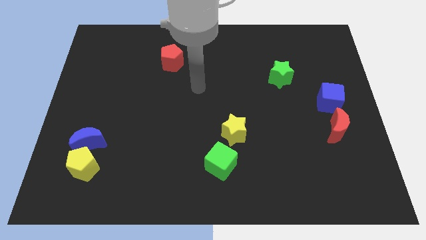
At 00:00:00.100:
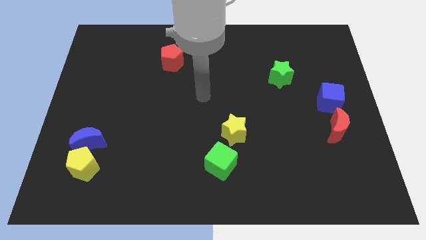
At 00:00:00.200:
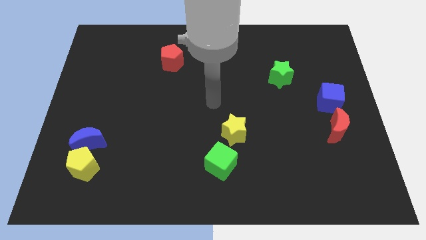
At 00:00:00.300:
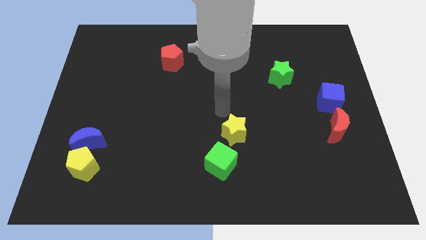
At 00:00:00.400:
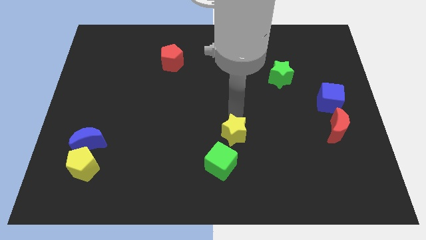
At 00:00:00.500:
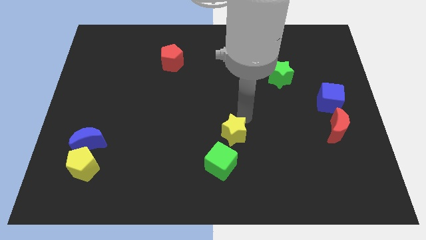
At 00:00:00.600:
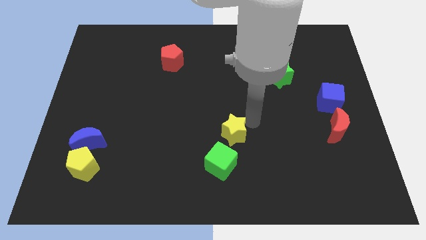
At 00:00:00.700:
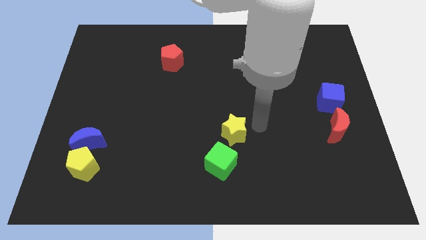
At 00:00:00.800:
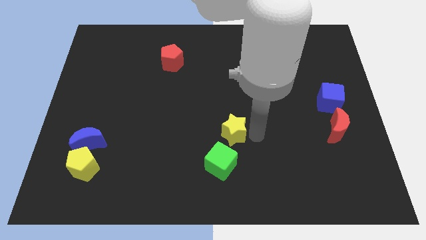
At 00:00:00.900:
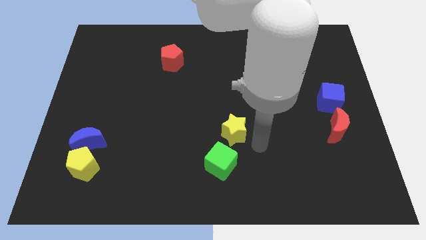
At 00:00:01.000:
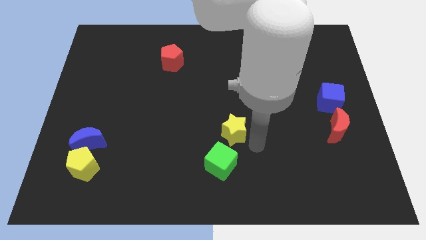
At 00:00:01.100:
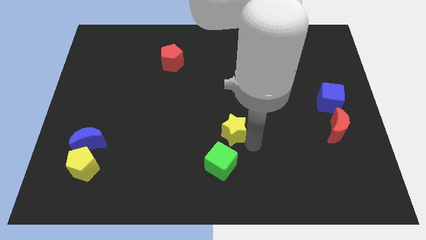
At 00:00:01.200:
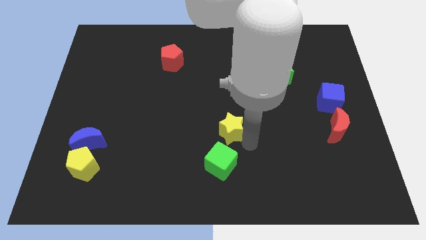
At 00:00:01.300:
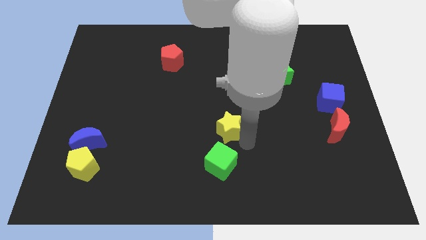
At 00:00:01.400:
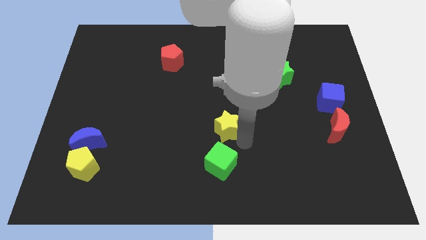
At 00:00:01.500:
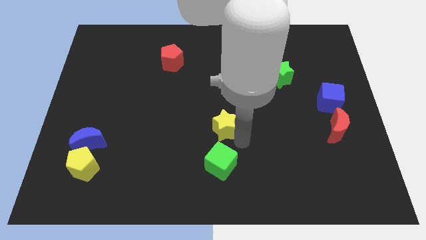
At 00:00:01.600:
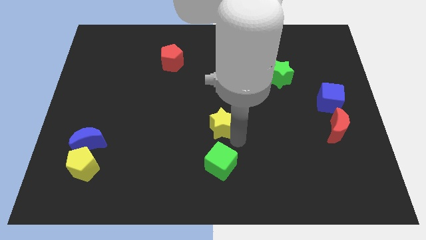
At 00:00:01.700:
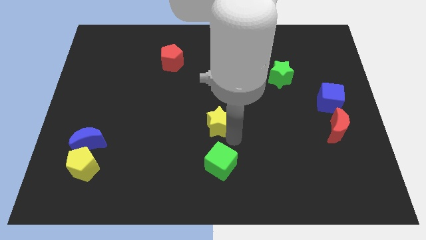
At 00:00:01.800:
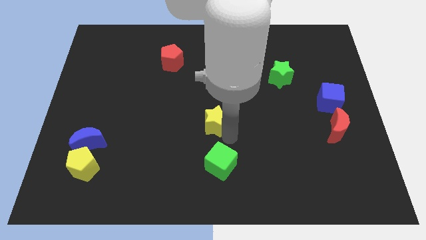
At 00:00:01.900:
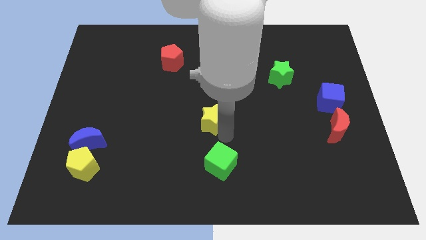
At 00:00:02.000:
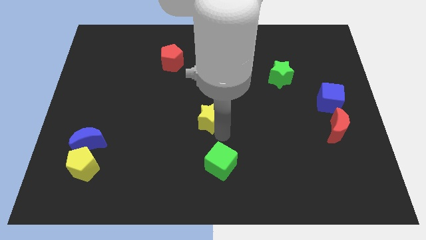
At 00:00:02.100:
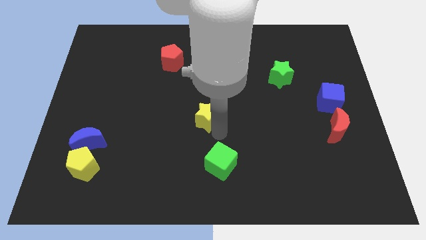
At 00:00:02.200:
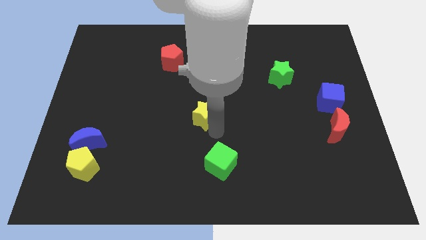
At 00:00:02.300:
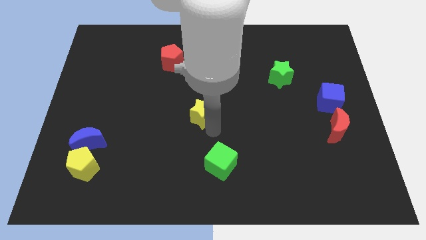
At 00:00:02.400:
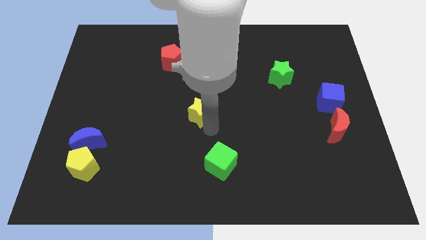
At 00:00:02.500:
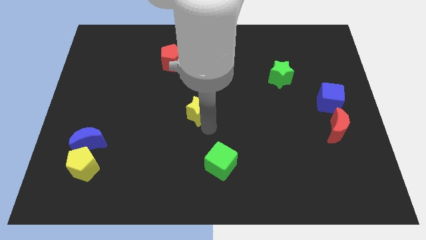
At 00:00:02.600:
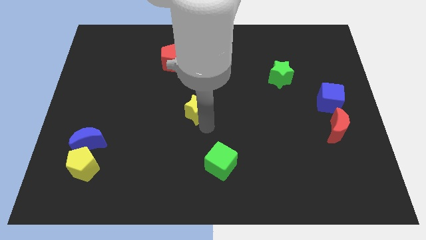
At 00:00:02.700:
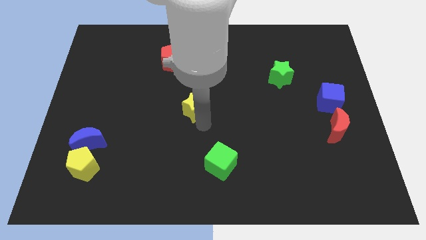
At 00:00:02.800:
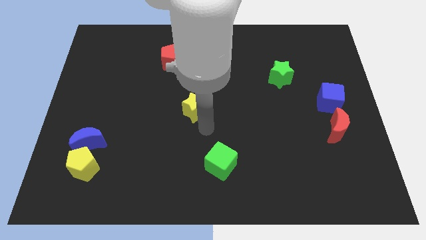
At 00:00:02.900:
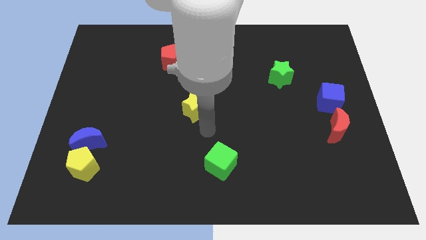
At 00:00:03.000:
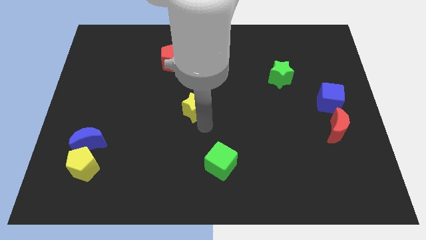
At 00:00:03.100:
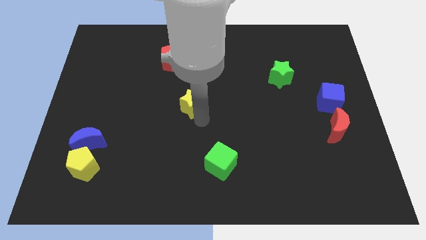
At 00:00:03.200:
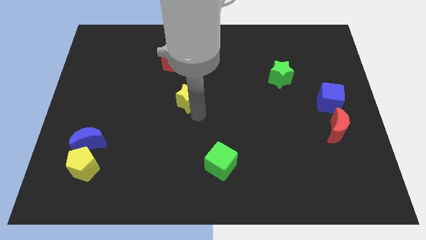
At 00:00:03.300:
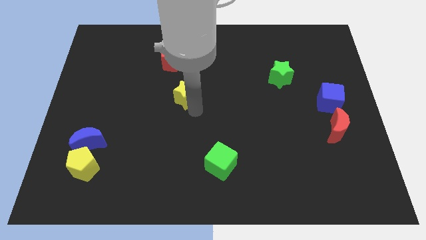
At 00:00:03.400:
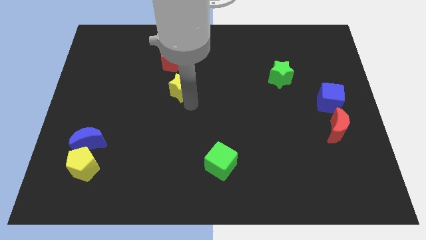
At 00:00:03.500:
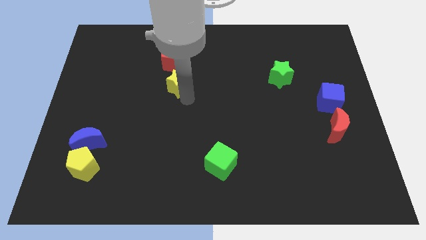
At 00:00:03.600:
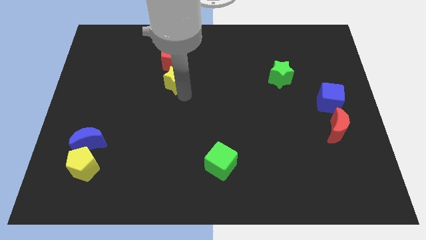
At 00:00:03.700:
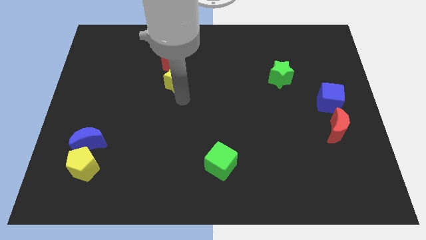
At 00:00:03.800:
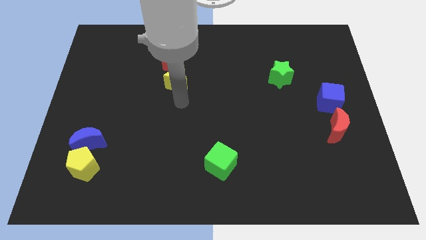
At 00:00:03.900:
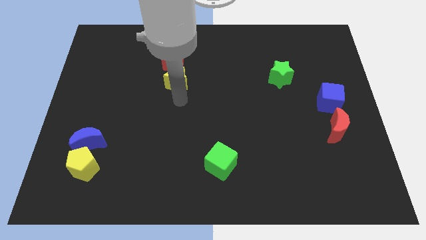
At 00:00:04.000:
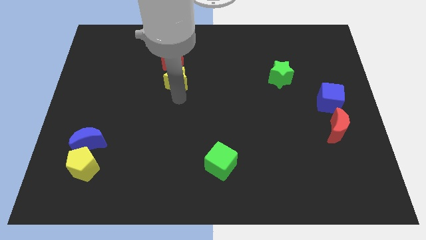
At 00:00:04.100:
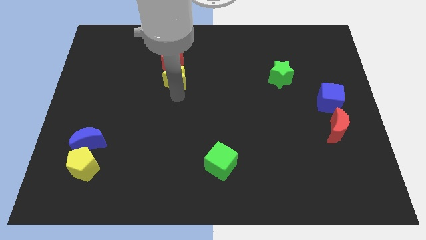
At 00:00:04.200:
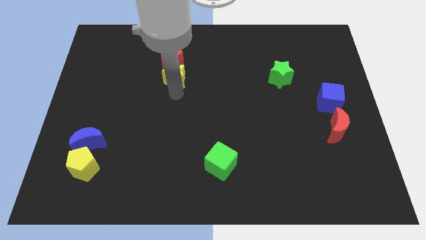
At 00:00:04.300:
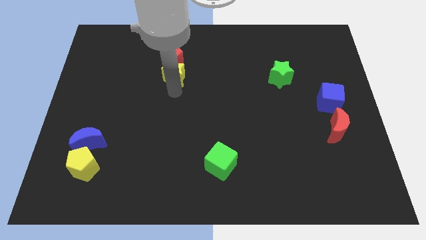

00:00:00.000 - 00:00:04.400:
put the yellow star next to the red pentagon

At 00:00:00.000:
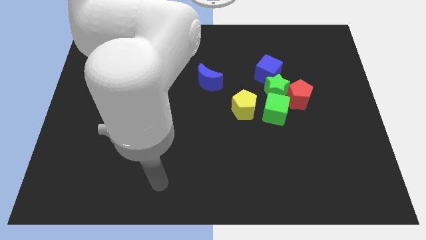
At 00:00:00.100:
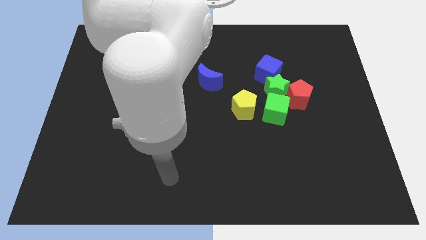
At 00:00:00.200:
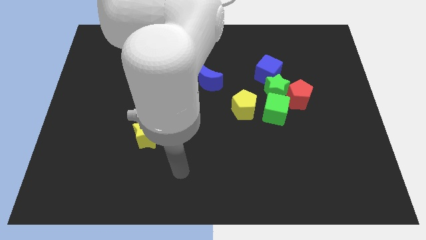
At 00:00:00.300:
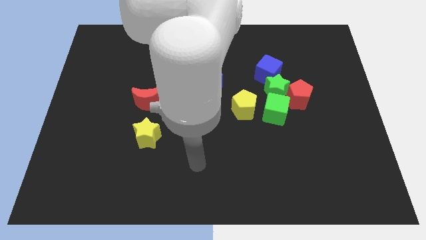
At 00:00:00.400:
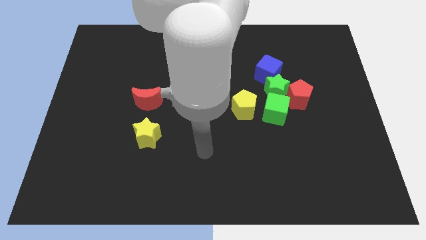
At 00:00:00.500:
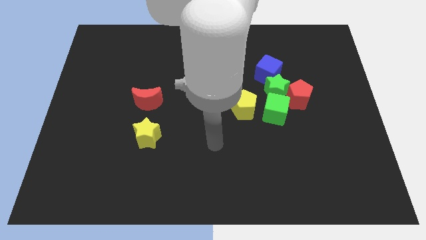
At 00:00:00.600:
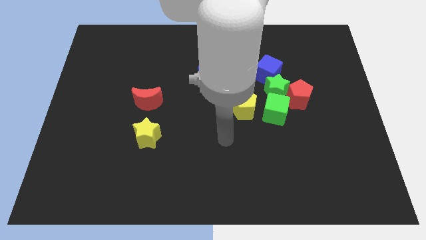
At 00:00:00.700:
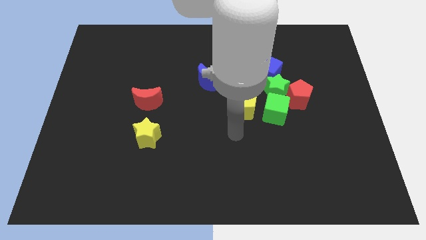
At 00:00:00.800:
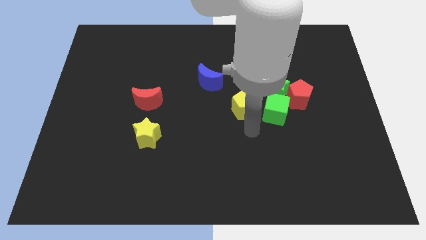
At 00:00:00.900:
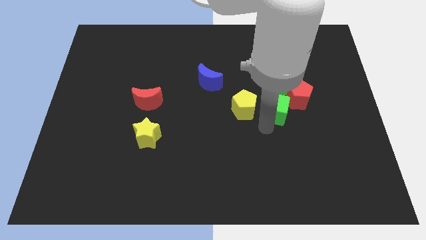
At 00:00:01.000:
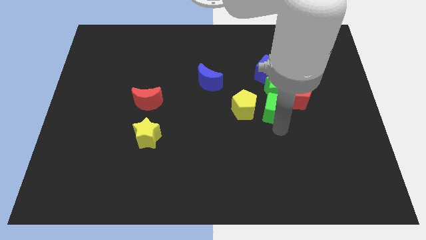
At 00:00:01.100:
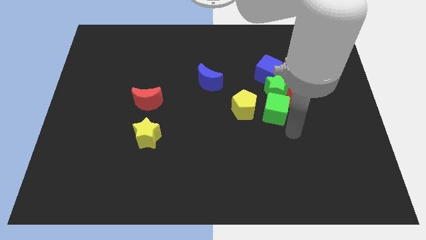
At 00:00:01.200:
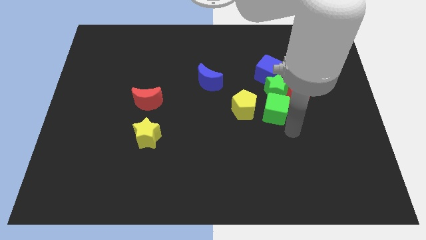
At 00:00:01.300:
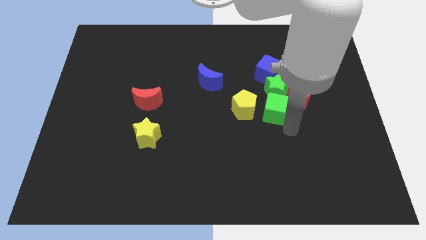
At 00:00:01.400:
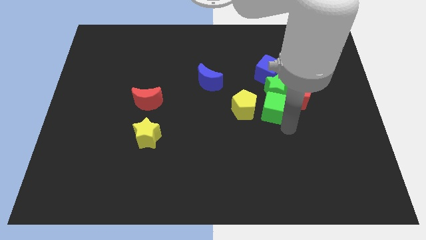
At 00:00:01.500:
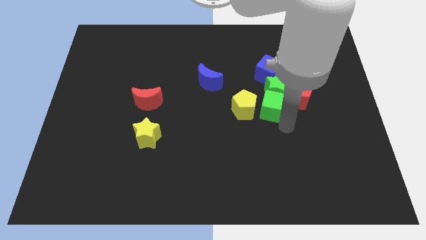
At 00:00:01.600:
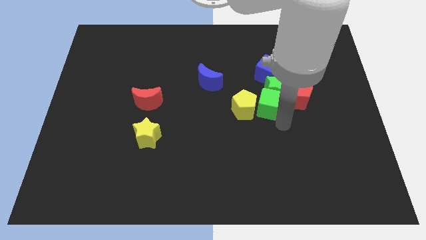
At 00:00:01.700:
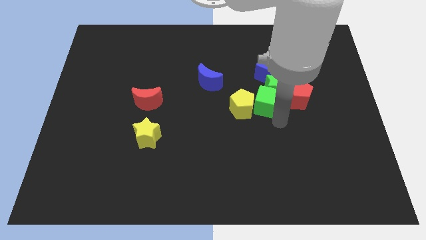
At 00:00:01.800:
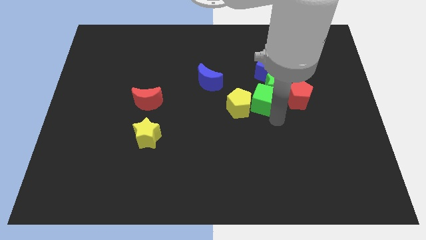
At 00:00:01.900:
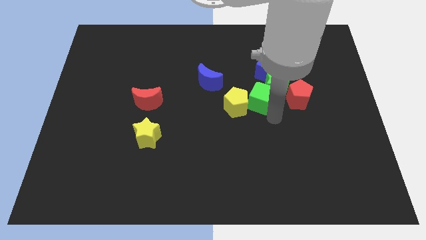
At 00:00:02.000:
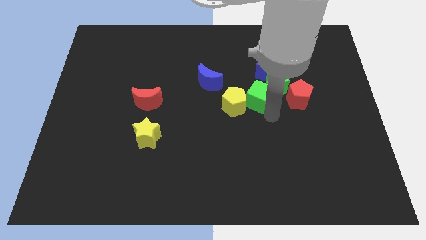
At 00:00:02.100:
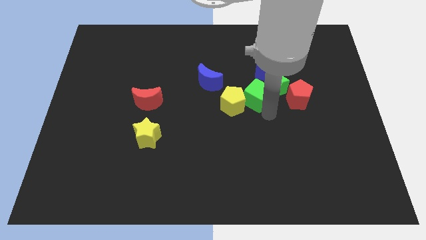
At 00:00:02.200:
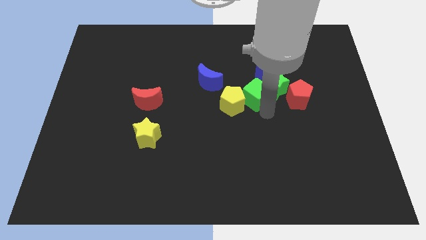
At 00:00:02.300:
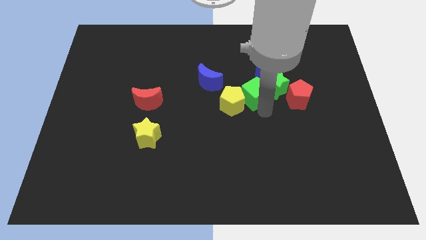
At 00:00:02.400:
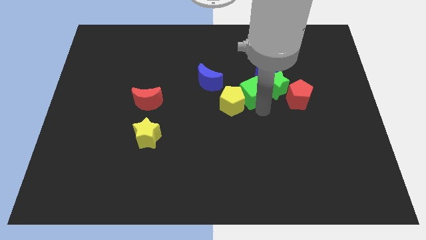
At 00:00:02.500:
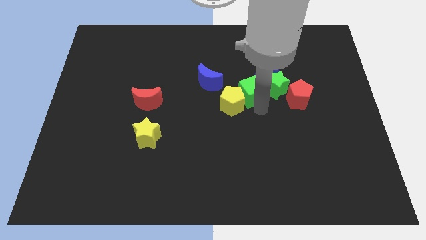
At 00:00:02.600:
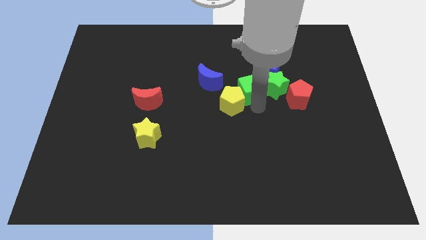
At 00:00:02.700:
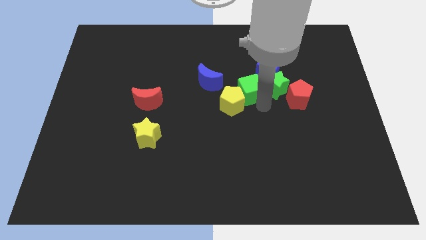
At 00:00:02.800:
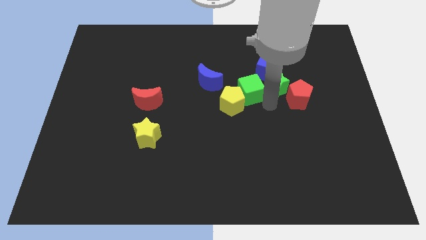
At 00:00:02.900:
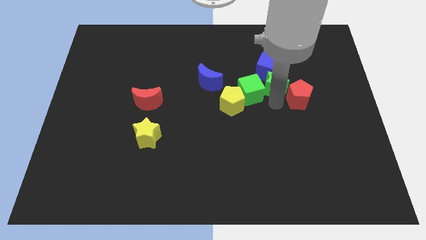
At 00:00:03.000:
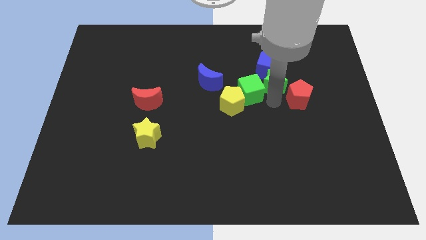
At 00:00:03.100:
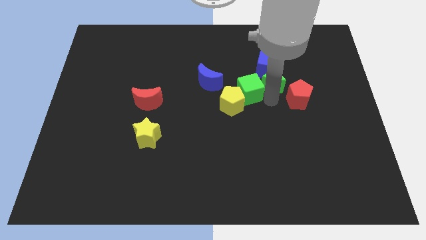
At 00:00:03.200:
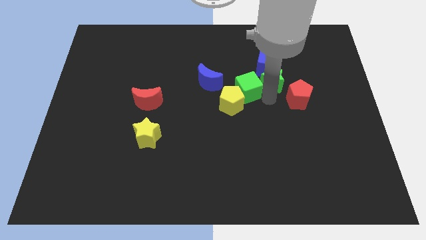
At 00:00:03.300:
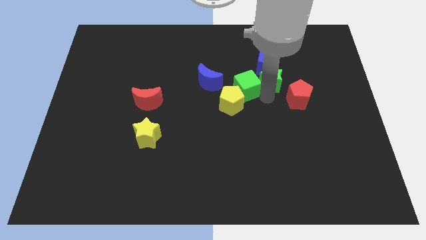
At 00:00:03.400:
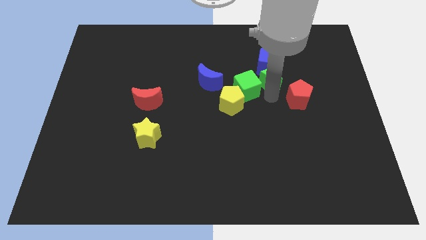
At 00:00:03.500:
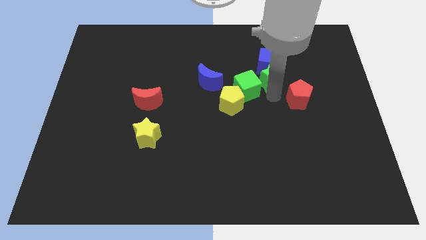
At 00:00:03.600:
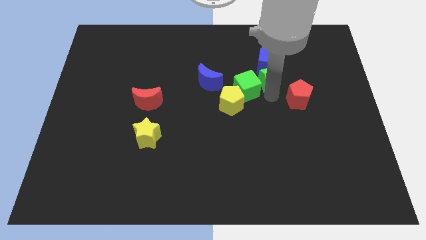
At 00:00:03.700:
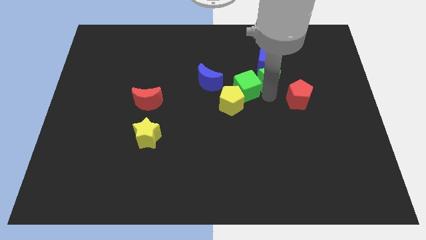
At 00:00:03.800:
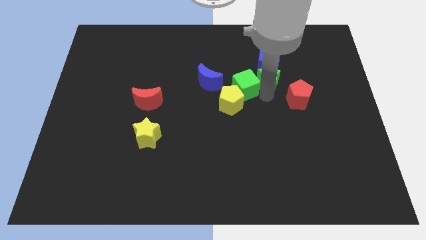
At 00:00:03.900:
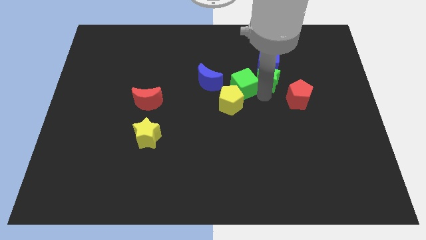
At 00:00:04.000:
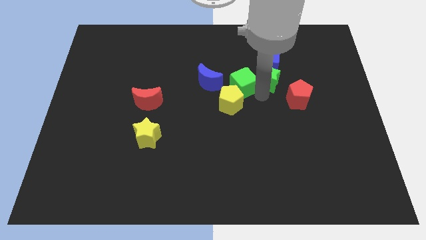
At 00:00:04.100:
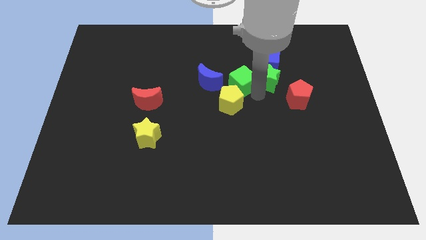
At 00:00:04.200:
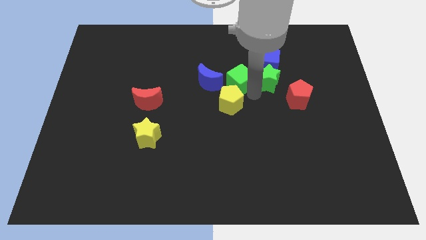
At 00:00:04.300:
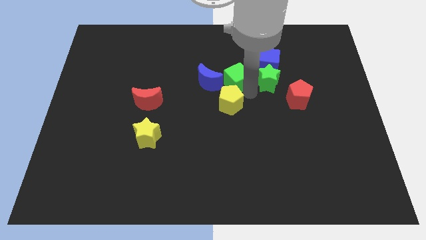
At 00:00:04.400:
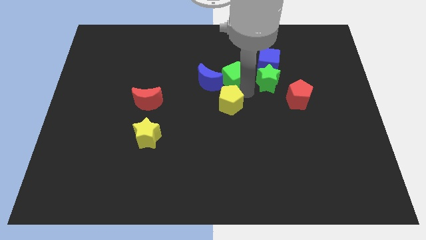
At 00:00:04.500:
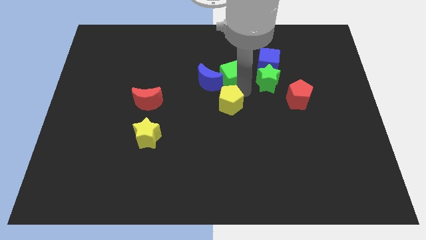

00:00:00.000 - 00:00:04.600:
put the green cube close to the blue moon
